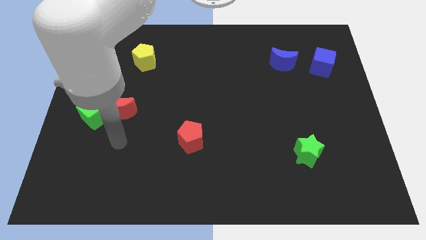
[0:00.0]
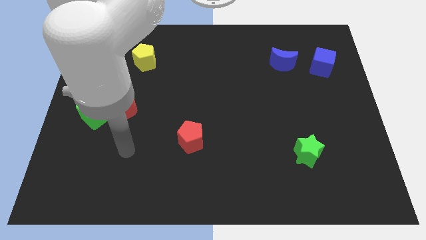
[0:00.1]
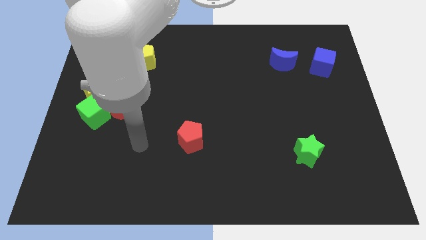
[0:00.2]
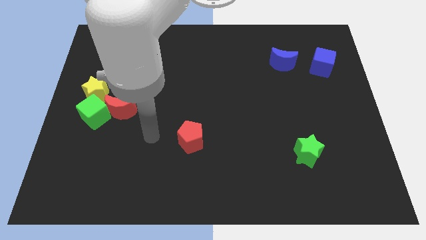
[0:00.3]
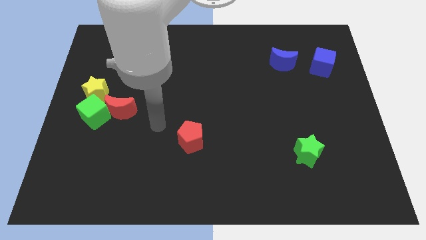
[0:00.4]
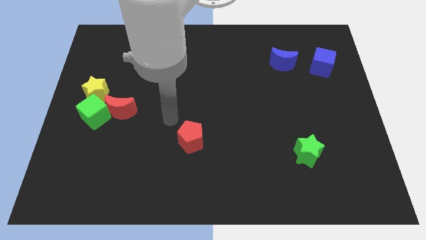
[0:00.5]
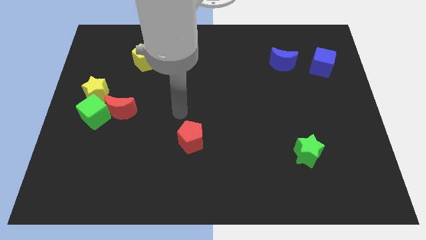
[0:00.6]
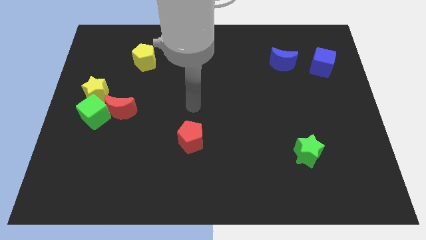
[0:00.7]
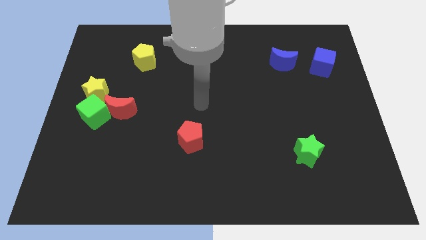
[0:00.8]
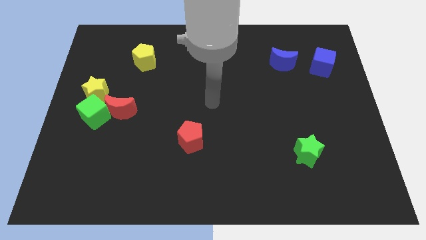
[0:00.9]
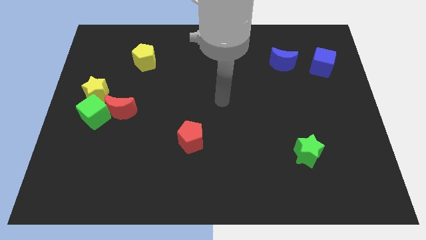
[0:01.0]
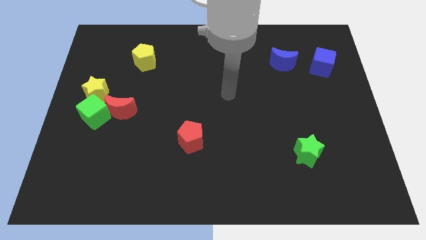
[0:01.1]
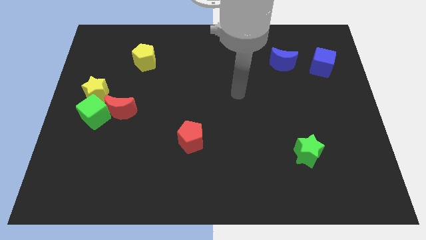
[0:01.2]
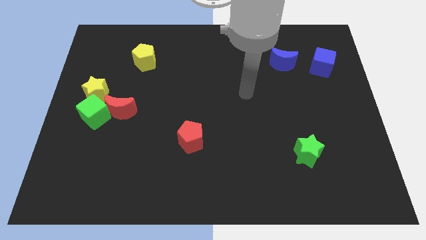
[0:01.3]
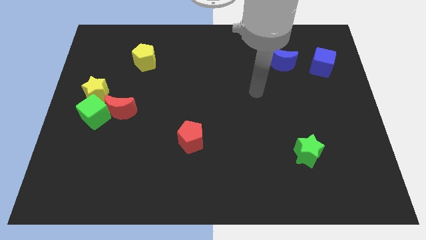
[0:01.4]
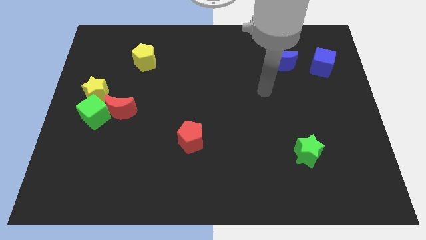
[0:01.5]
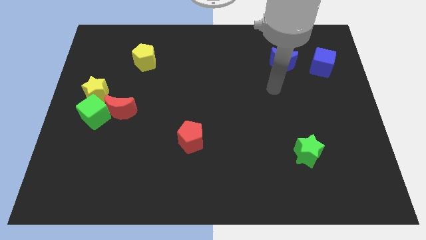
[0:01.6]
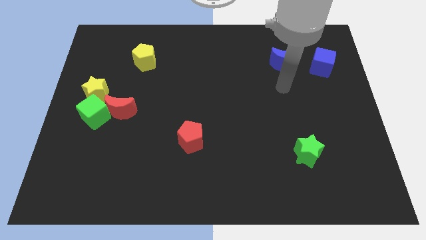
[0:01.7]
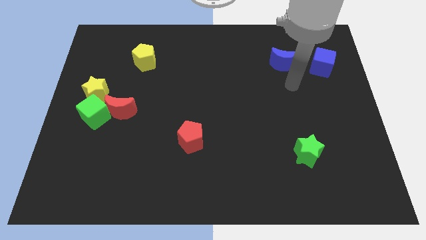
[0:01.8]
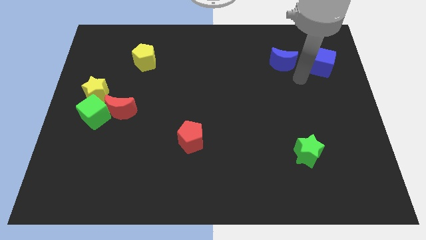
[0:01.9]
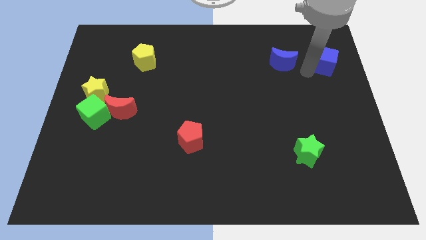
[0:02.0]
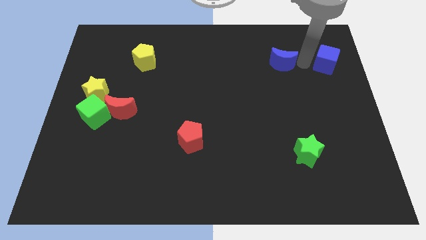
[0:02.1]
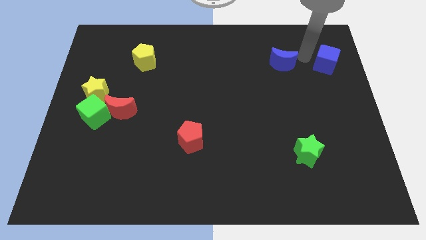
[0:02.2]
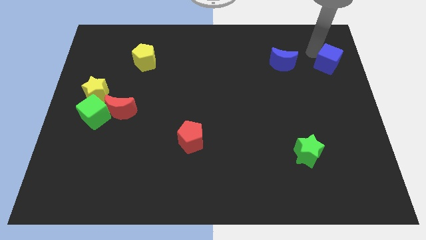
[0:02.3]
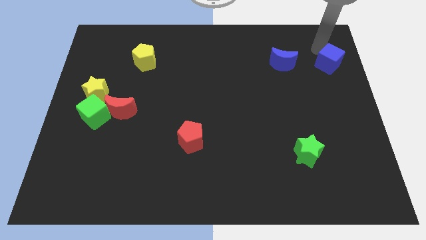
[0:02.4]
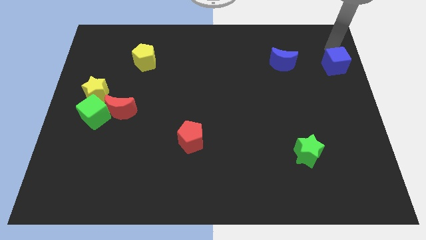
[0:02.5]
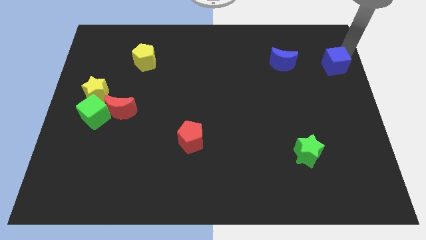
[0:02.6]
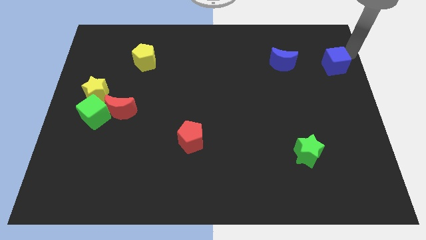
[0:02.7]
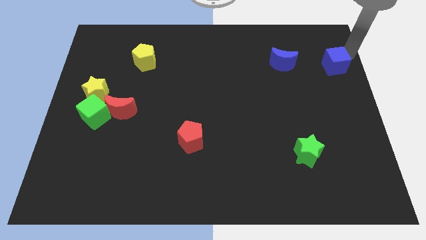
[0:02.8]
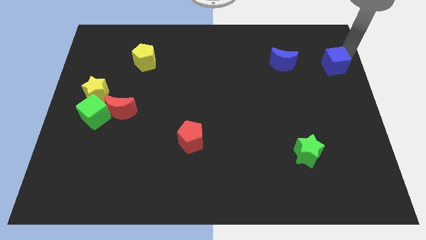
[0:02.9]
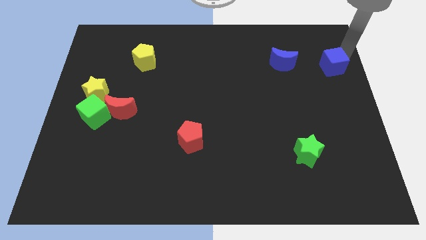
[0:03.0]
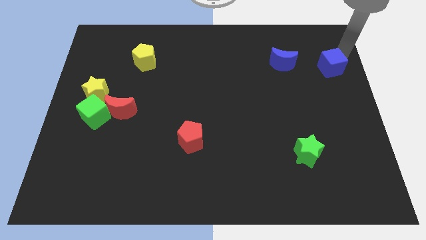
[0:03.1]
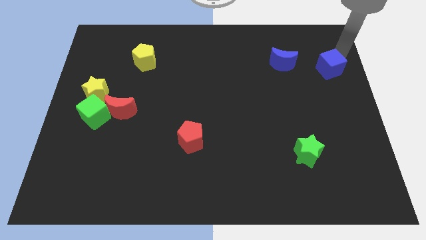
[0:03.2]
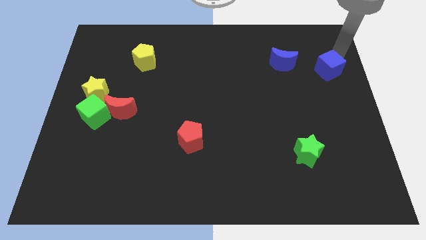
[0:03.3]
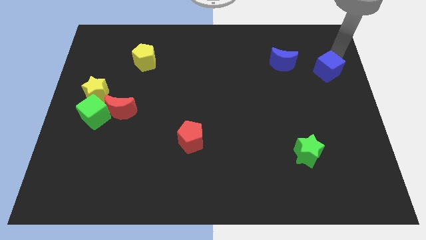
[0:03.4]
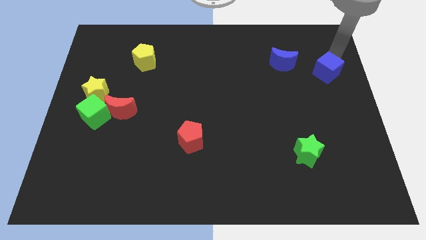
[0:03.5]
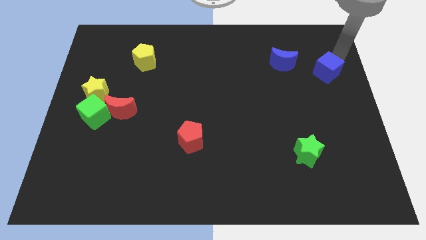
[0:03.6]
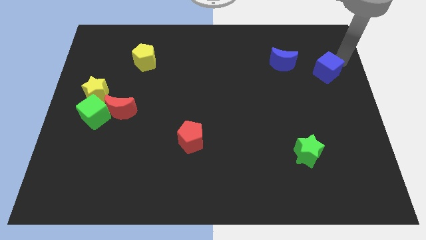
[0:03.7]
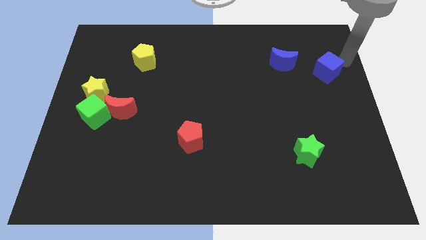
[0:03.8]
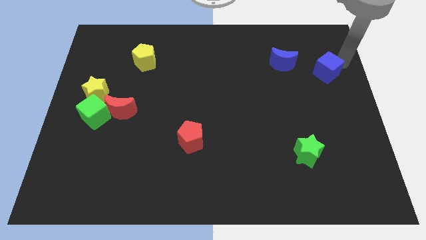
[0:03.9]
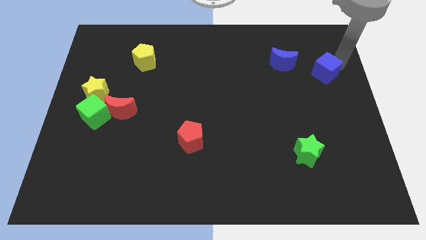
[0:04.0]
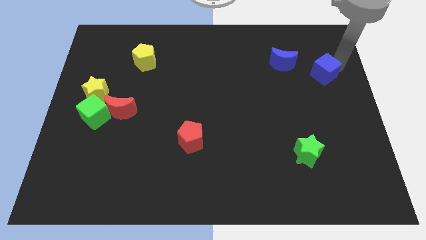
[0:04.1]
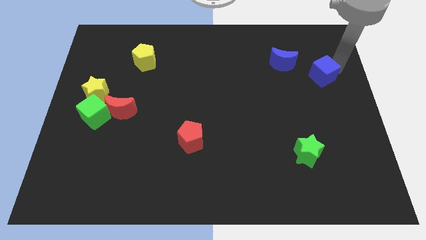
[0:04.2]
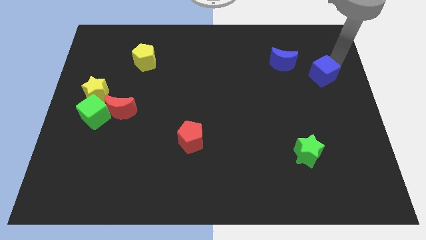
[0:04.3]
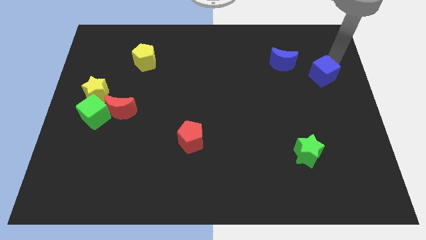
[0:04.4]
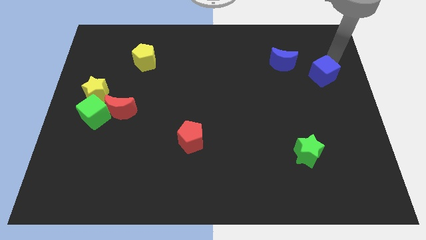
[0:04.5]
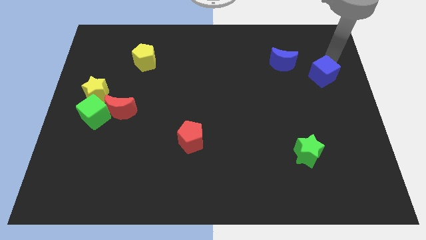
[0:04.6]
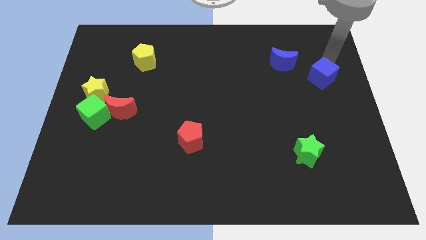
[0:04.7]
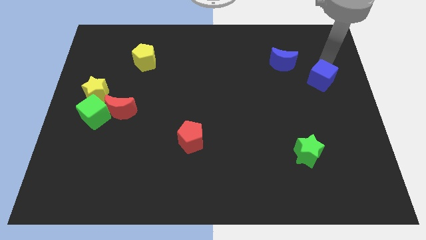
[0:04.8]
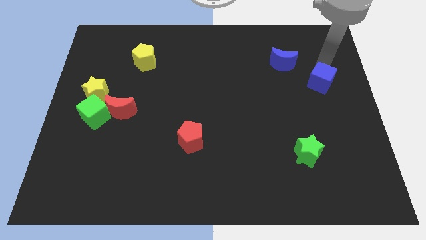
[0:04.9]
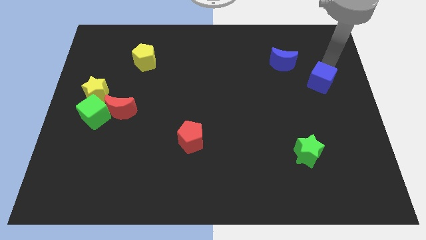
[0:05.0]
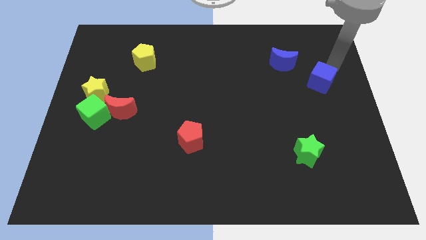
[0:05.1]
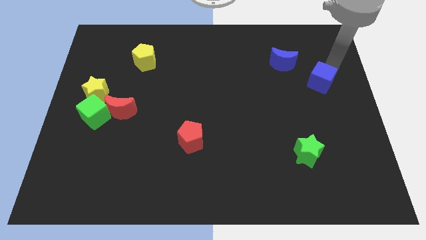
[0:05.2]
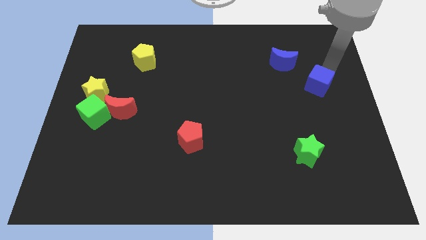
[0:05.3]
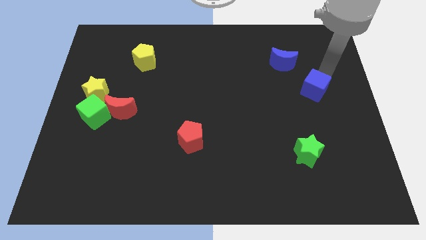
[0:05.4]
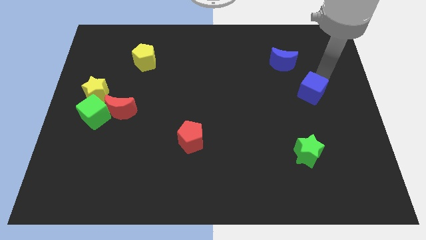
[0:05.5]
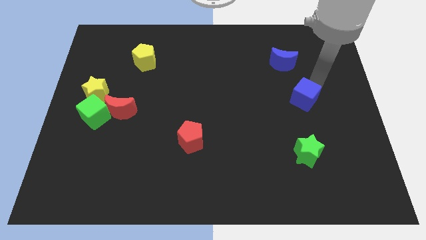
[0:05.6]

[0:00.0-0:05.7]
push the blue cube to the top of the green star
